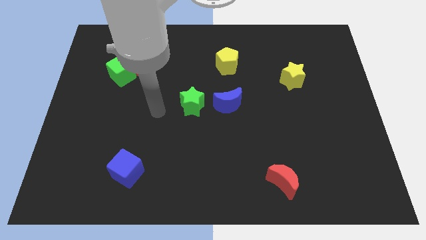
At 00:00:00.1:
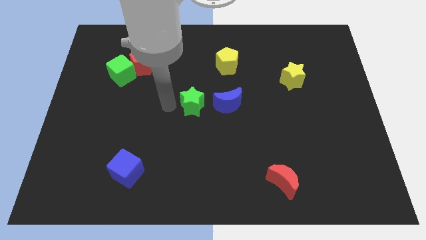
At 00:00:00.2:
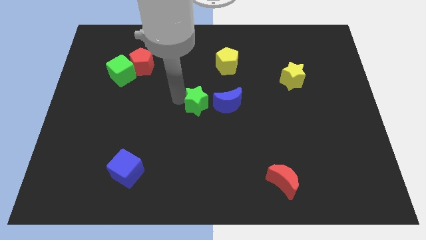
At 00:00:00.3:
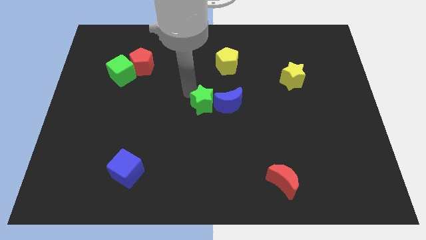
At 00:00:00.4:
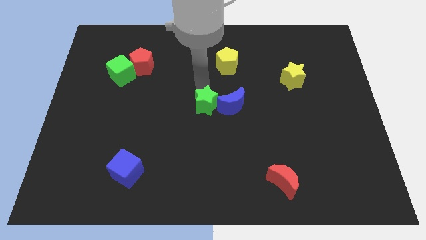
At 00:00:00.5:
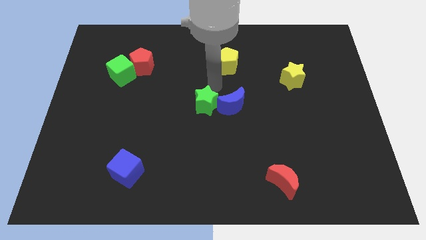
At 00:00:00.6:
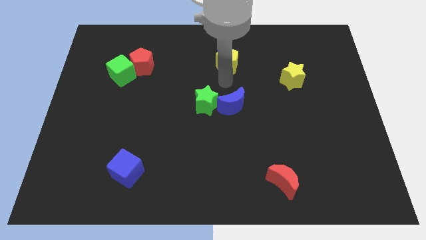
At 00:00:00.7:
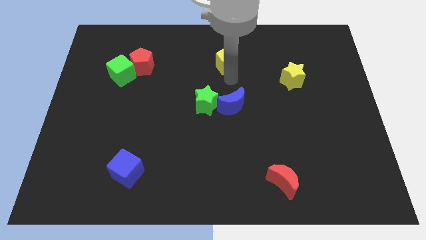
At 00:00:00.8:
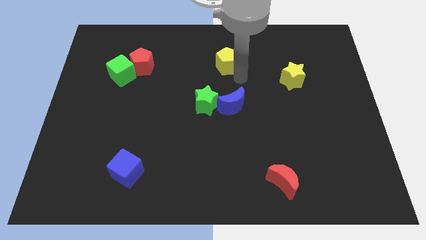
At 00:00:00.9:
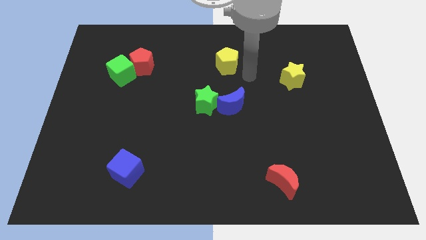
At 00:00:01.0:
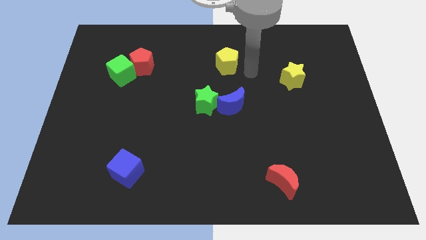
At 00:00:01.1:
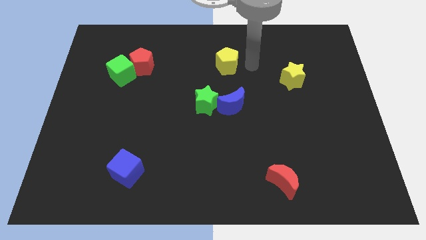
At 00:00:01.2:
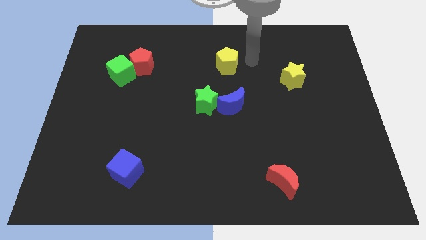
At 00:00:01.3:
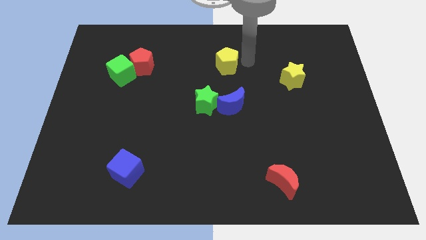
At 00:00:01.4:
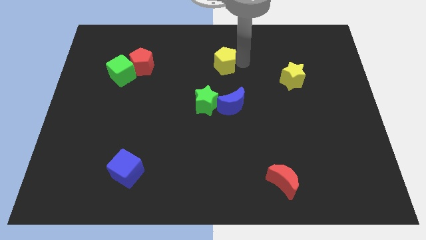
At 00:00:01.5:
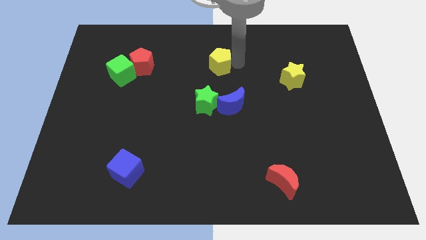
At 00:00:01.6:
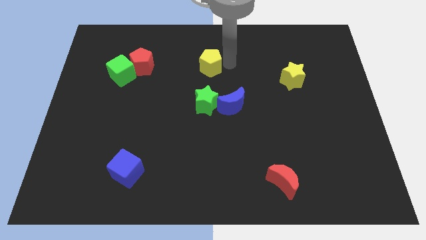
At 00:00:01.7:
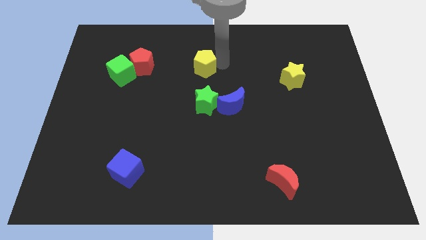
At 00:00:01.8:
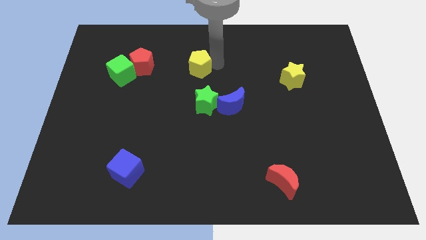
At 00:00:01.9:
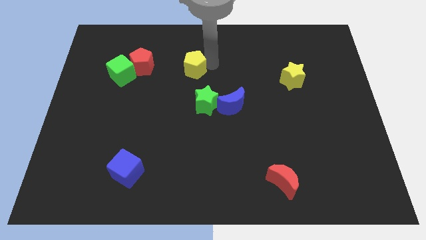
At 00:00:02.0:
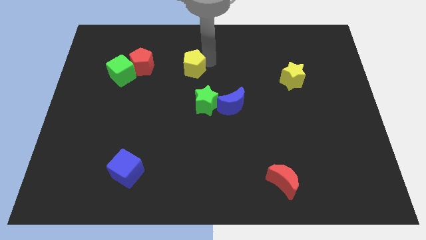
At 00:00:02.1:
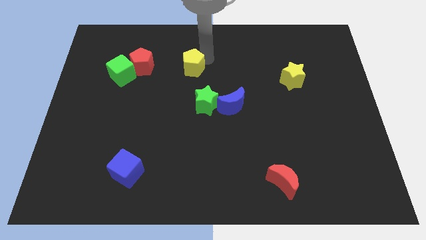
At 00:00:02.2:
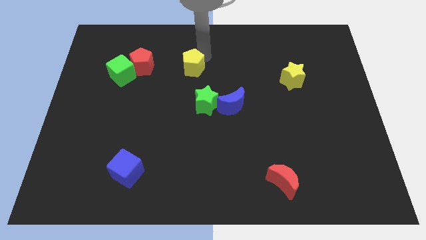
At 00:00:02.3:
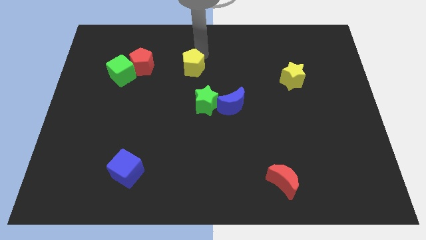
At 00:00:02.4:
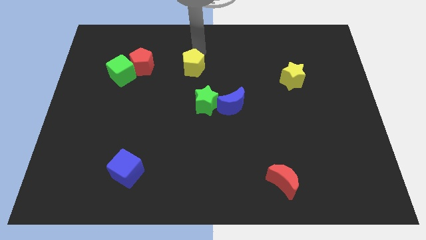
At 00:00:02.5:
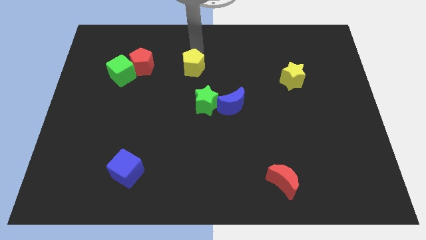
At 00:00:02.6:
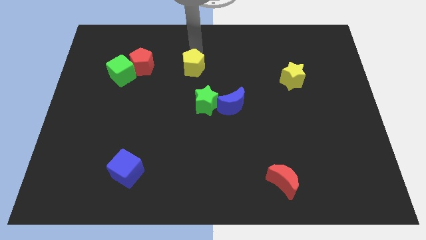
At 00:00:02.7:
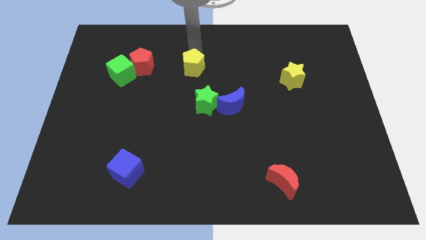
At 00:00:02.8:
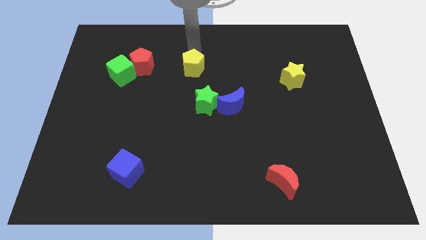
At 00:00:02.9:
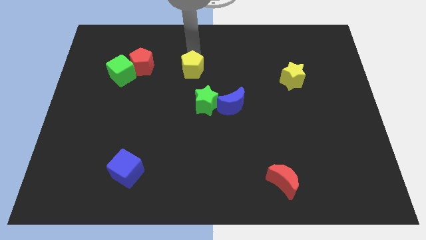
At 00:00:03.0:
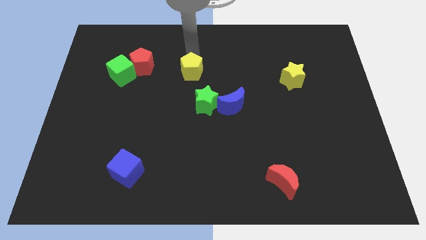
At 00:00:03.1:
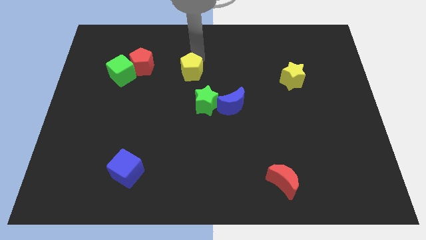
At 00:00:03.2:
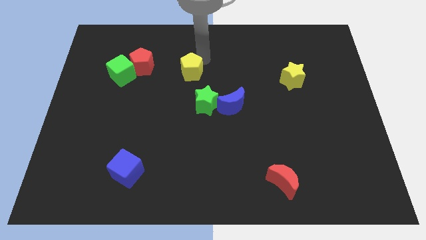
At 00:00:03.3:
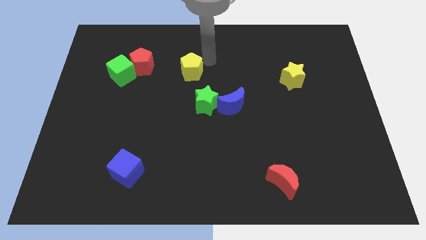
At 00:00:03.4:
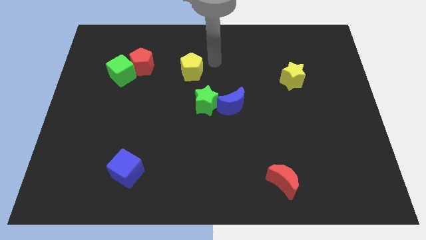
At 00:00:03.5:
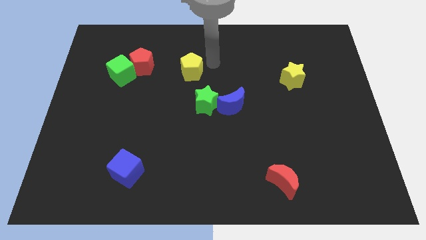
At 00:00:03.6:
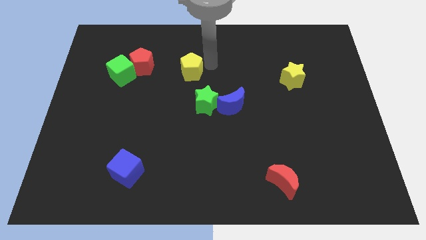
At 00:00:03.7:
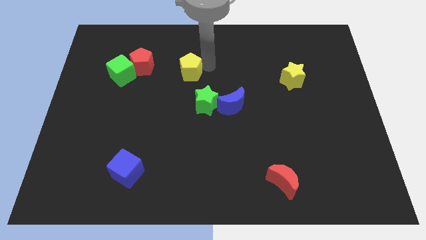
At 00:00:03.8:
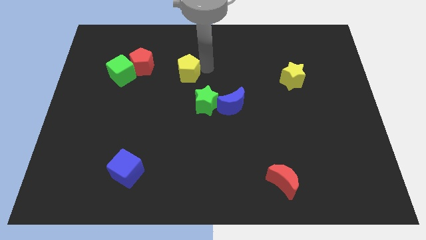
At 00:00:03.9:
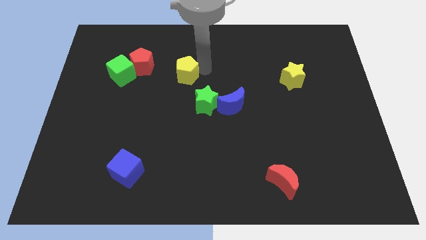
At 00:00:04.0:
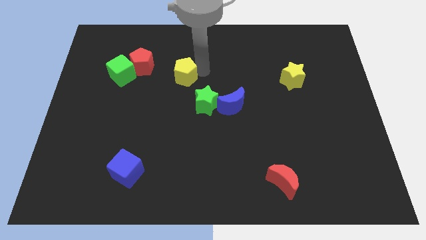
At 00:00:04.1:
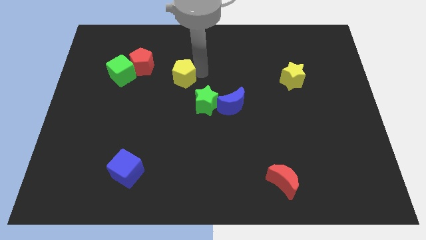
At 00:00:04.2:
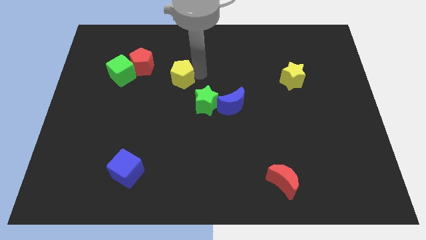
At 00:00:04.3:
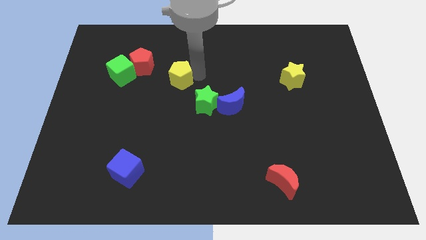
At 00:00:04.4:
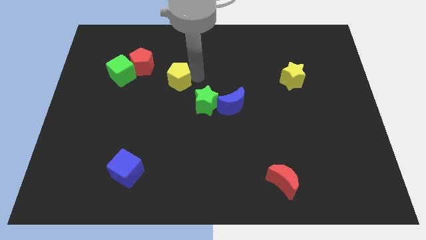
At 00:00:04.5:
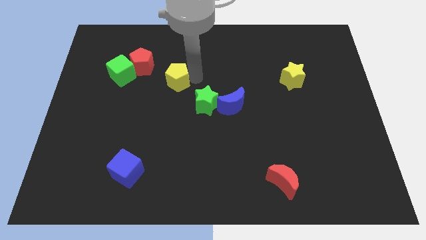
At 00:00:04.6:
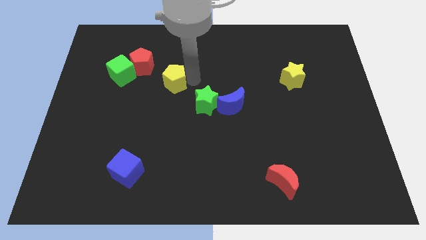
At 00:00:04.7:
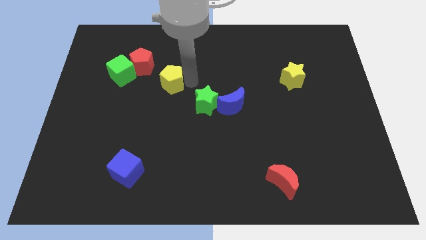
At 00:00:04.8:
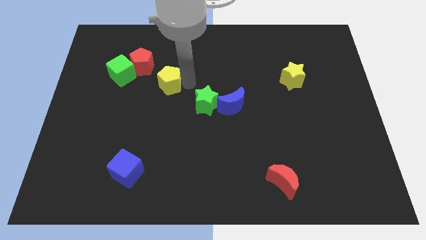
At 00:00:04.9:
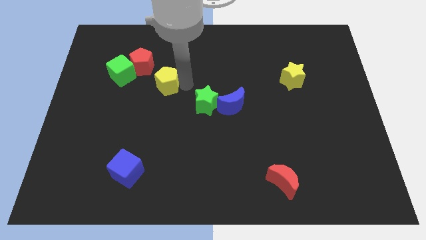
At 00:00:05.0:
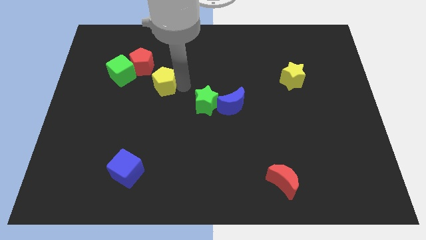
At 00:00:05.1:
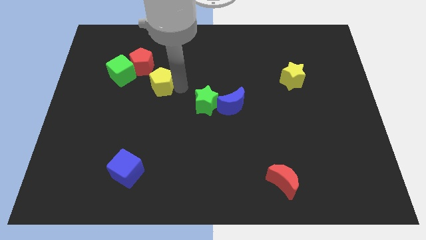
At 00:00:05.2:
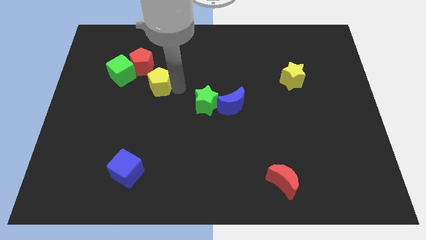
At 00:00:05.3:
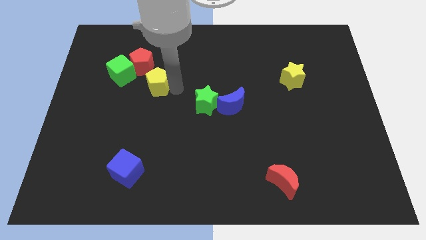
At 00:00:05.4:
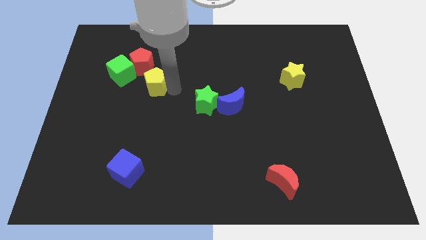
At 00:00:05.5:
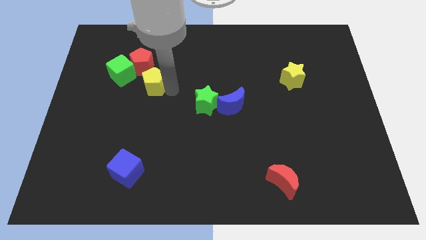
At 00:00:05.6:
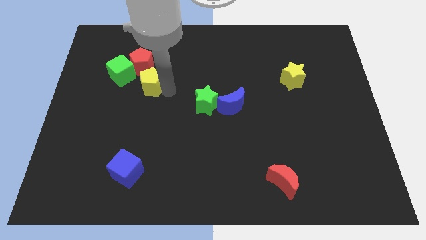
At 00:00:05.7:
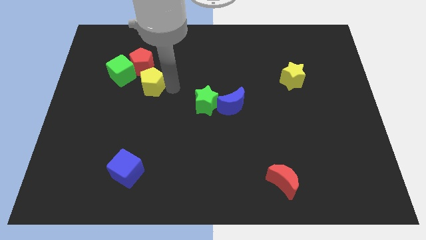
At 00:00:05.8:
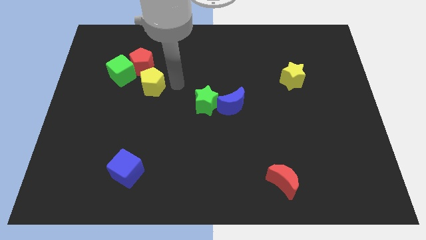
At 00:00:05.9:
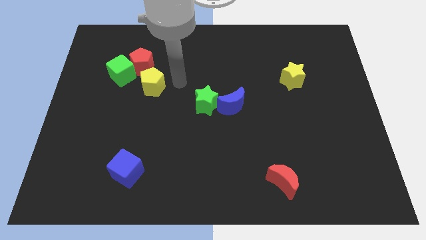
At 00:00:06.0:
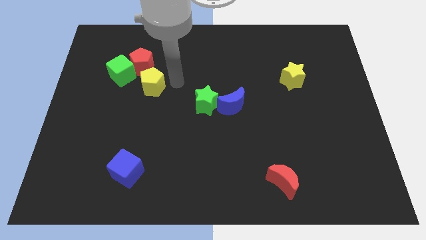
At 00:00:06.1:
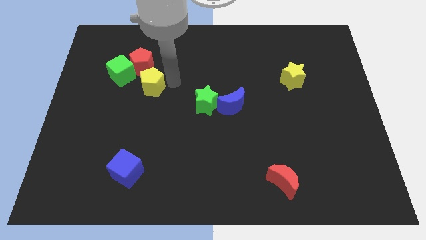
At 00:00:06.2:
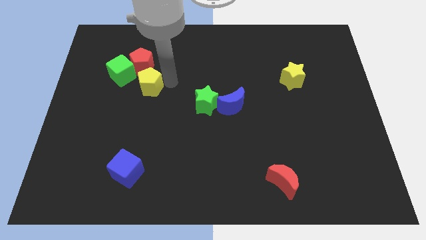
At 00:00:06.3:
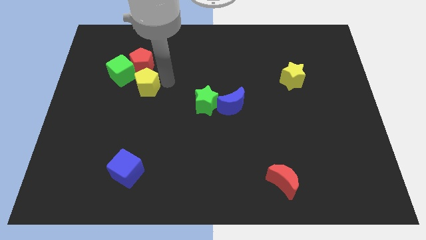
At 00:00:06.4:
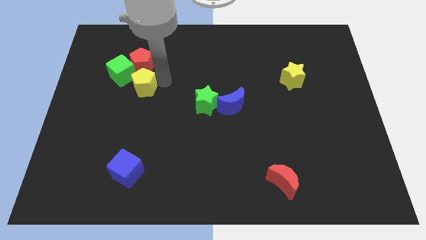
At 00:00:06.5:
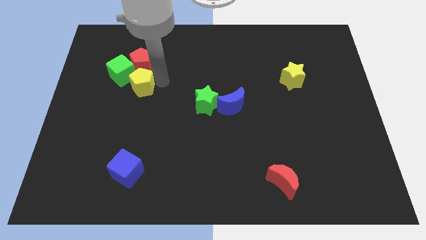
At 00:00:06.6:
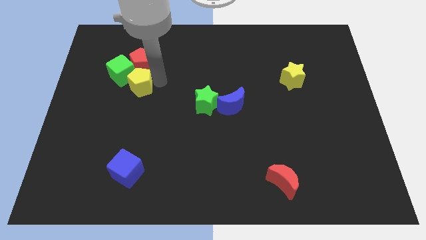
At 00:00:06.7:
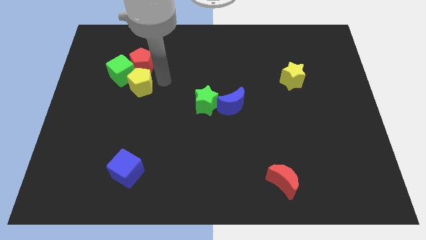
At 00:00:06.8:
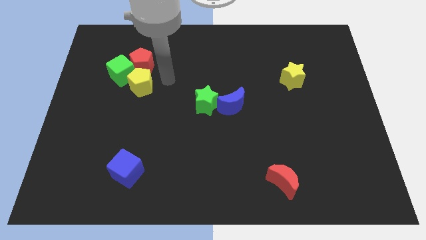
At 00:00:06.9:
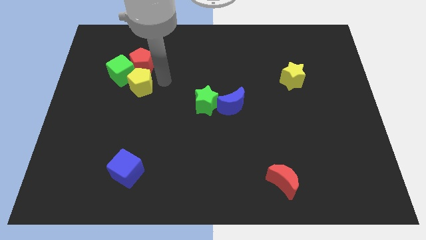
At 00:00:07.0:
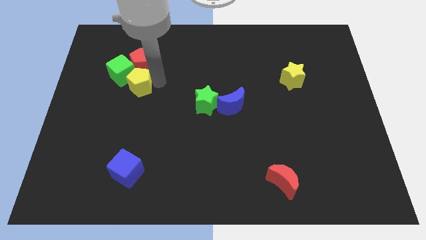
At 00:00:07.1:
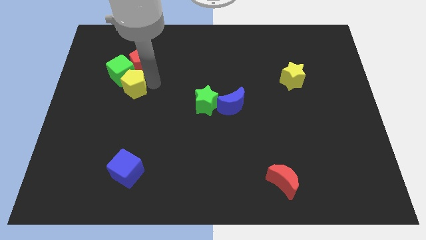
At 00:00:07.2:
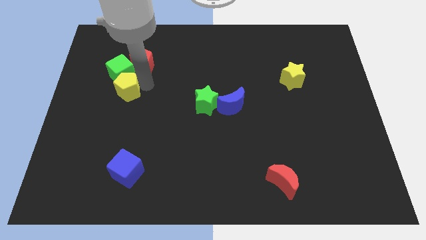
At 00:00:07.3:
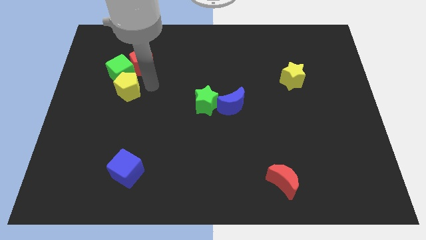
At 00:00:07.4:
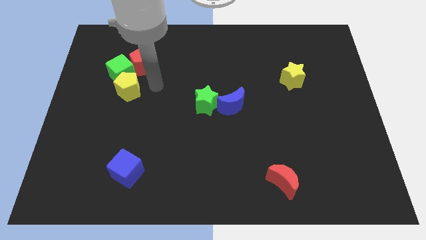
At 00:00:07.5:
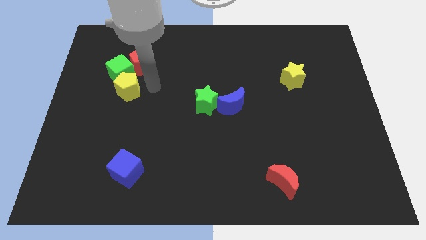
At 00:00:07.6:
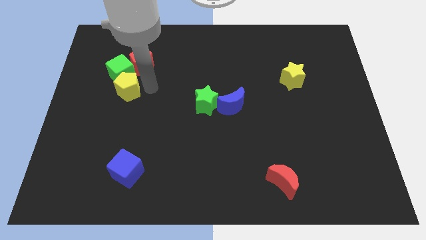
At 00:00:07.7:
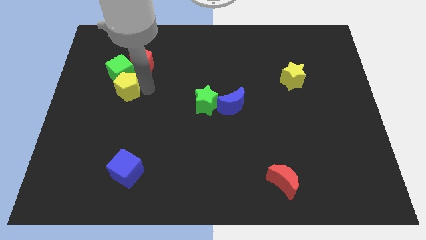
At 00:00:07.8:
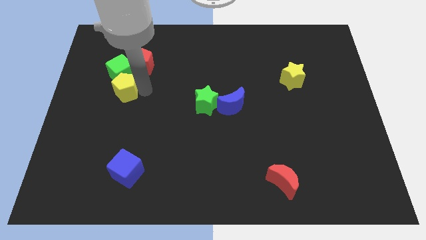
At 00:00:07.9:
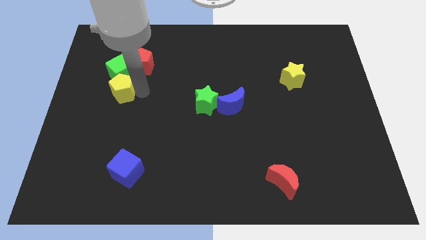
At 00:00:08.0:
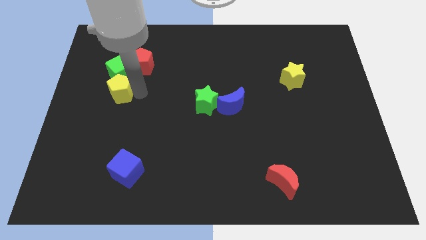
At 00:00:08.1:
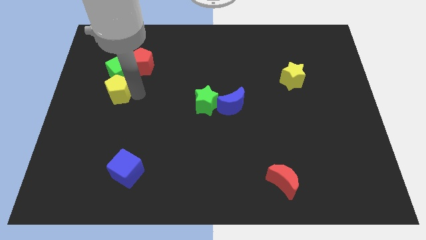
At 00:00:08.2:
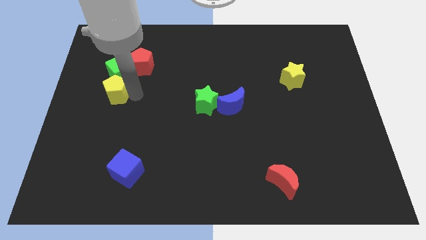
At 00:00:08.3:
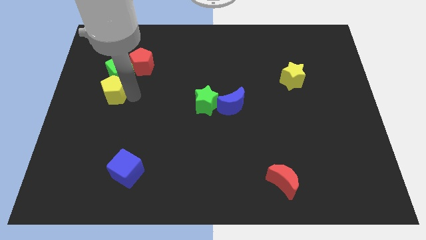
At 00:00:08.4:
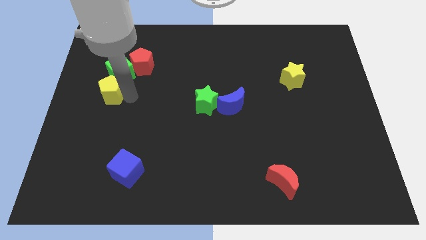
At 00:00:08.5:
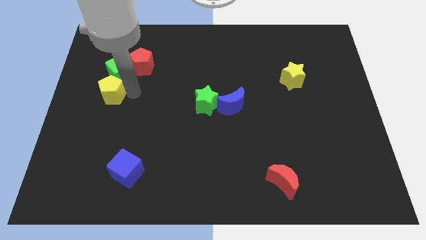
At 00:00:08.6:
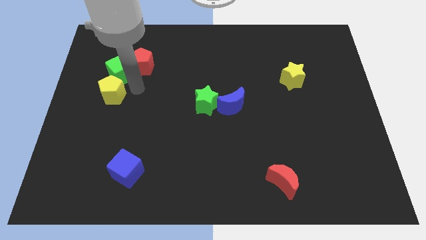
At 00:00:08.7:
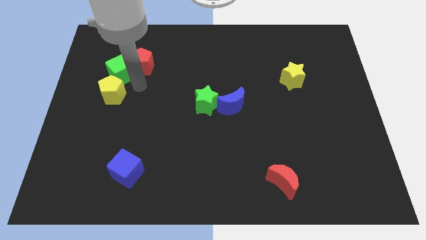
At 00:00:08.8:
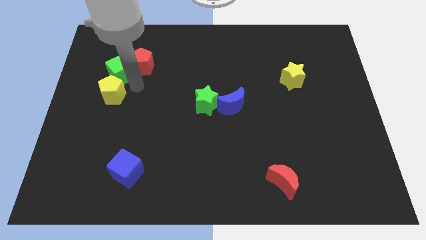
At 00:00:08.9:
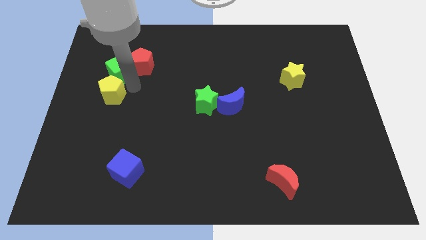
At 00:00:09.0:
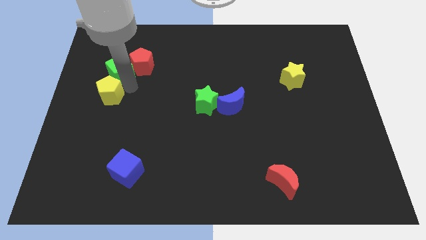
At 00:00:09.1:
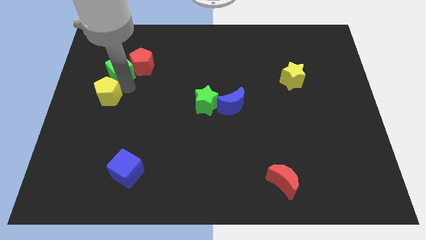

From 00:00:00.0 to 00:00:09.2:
slide the yellow pentagon to the left side of the board
